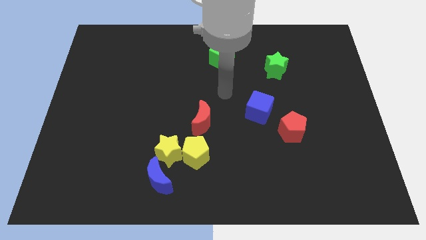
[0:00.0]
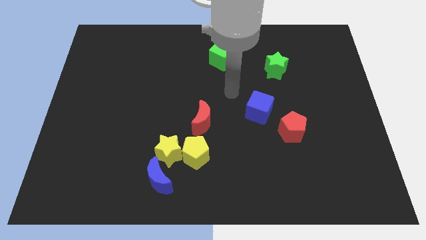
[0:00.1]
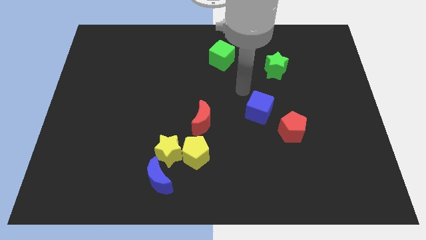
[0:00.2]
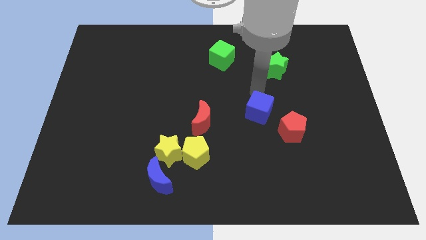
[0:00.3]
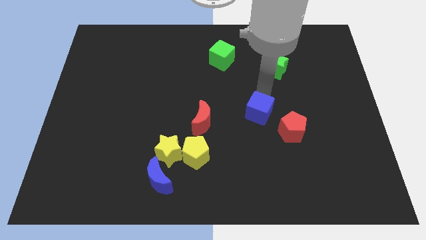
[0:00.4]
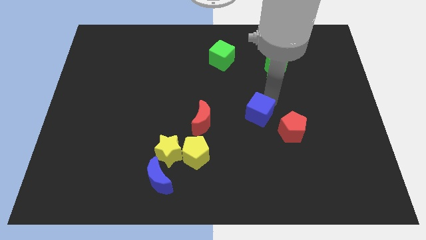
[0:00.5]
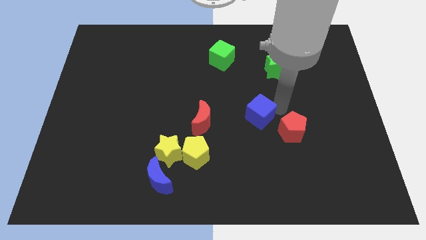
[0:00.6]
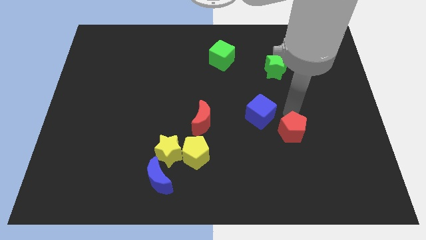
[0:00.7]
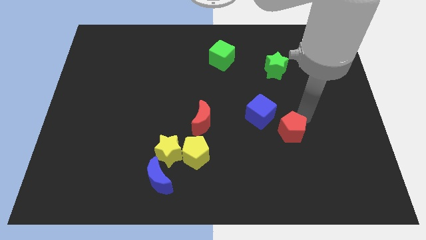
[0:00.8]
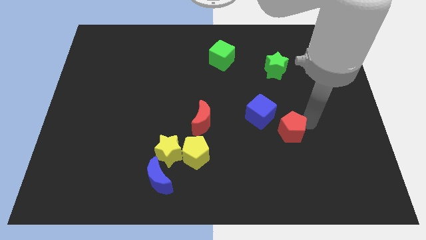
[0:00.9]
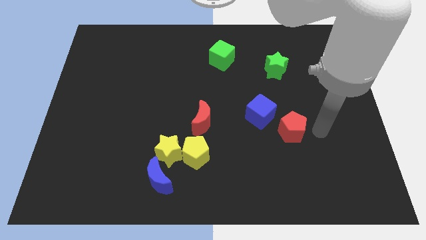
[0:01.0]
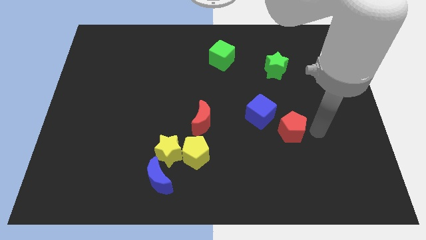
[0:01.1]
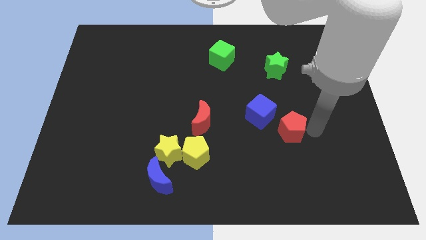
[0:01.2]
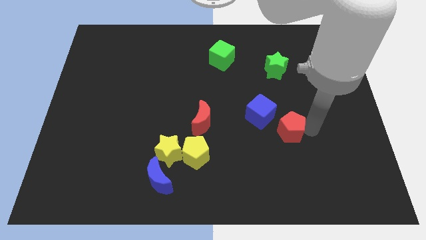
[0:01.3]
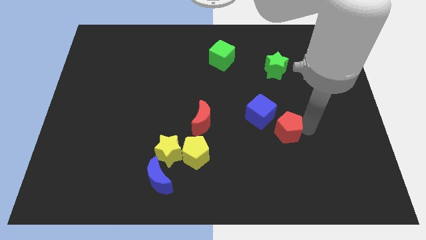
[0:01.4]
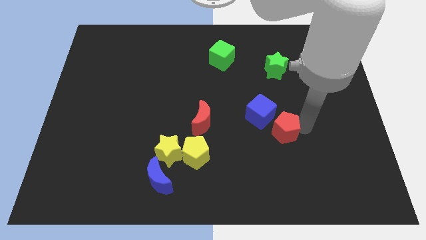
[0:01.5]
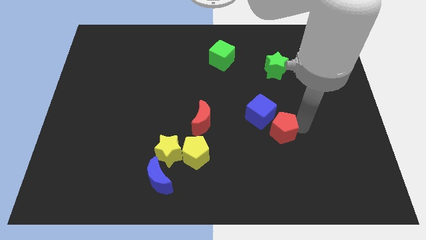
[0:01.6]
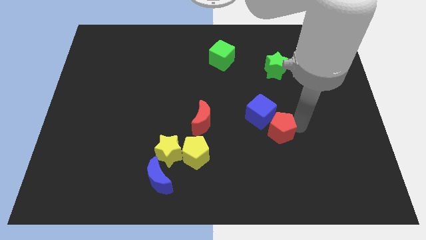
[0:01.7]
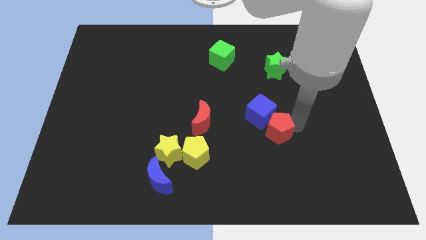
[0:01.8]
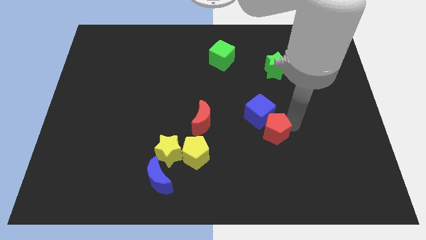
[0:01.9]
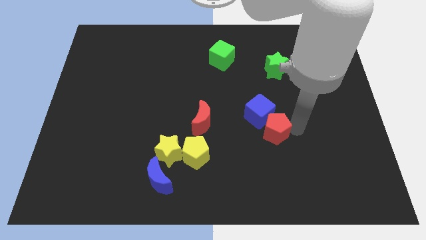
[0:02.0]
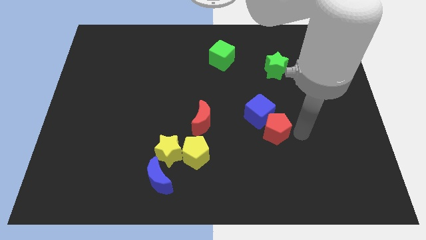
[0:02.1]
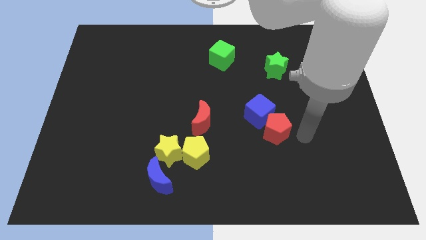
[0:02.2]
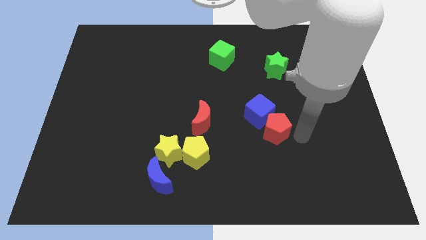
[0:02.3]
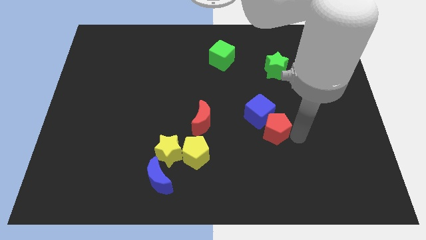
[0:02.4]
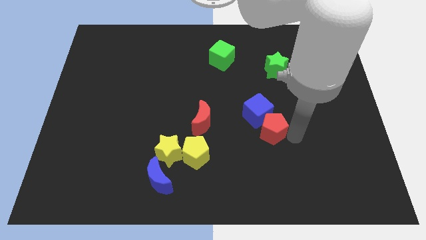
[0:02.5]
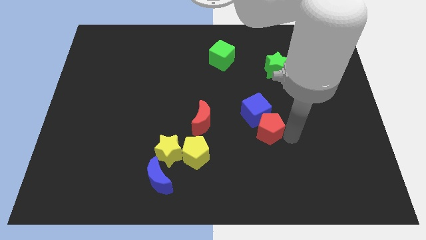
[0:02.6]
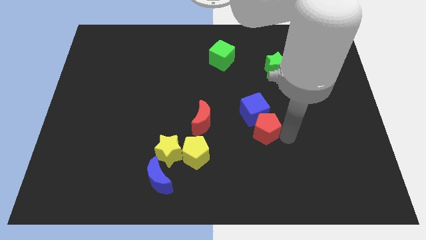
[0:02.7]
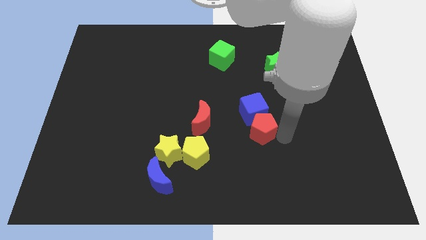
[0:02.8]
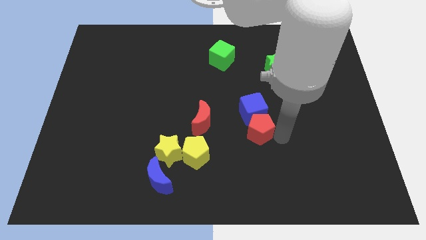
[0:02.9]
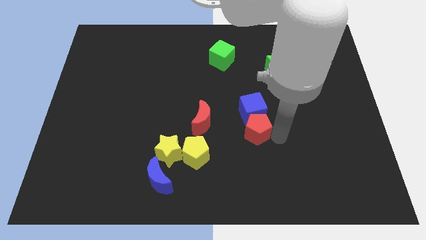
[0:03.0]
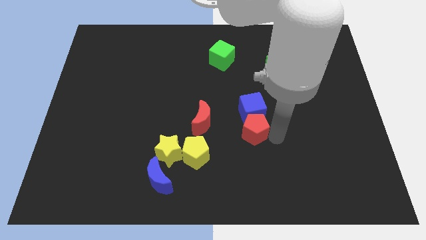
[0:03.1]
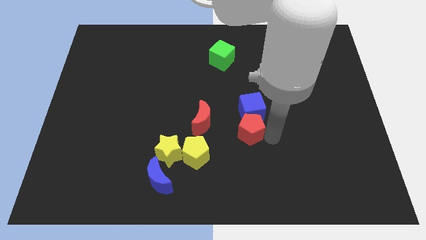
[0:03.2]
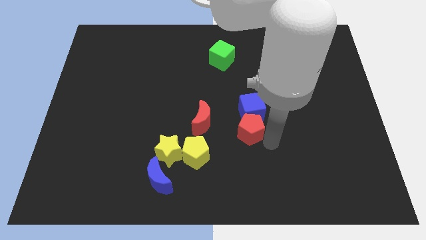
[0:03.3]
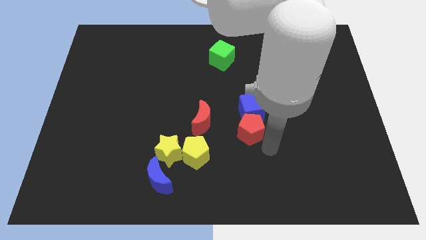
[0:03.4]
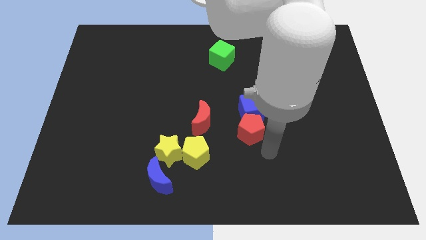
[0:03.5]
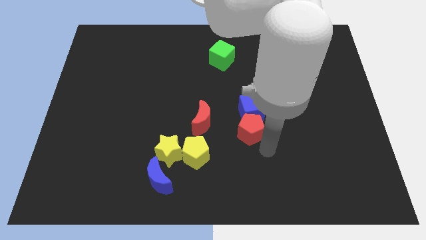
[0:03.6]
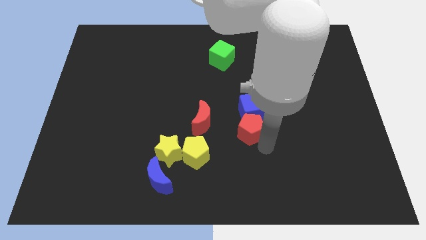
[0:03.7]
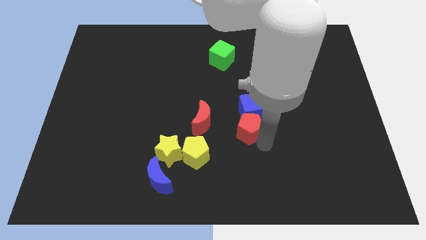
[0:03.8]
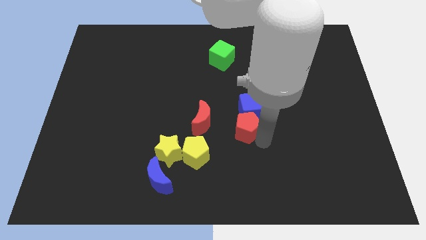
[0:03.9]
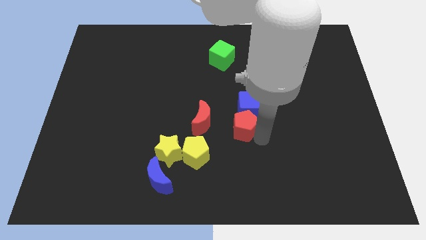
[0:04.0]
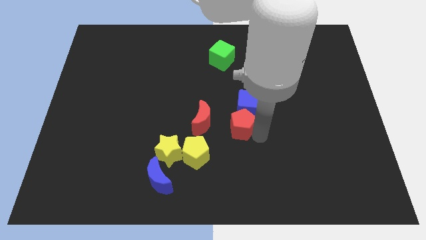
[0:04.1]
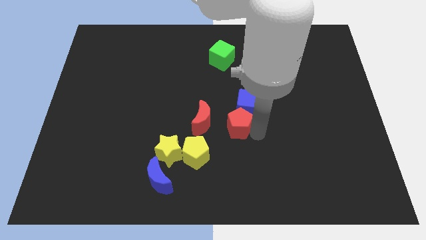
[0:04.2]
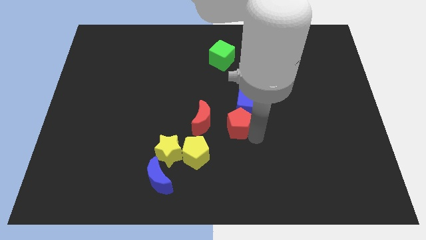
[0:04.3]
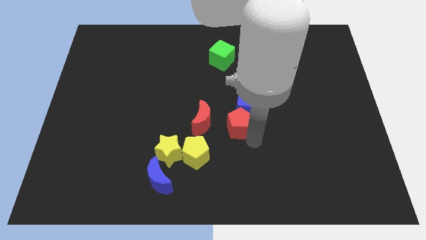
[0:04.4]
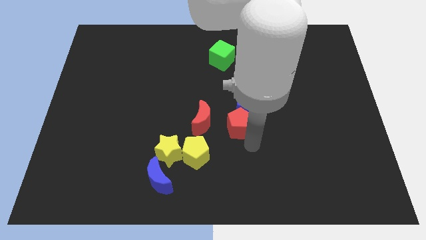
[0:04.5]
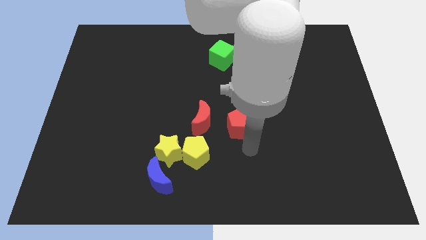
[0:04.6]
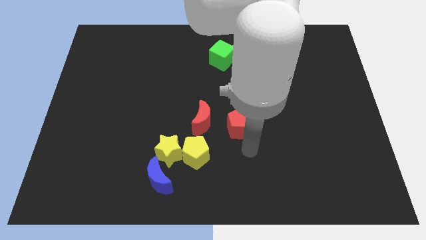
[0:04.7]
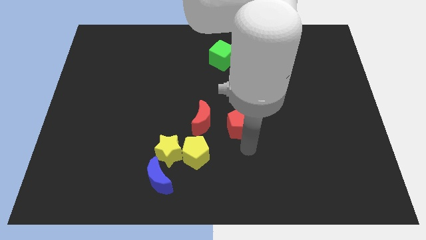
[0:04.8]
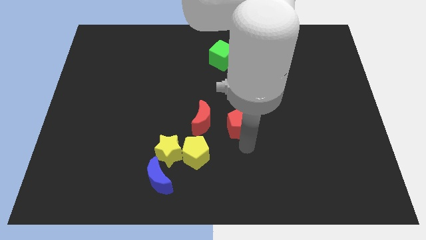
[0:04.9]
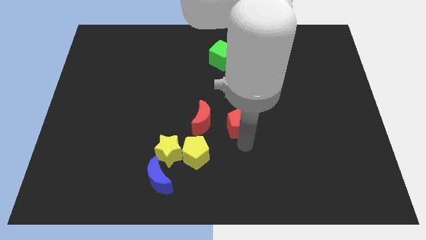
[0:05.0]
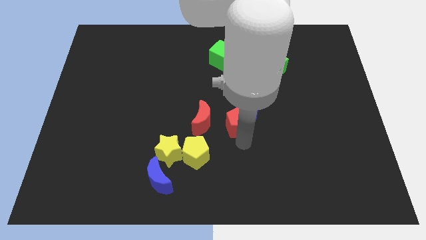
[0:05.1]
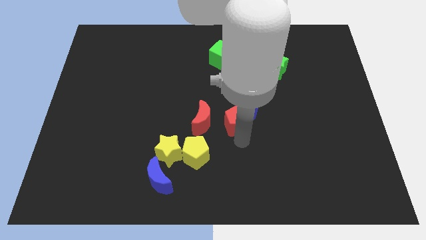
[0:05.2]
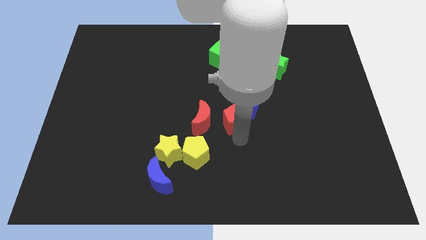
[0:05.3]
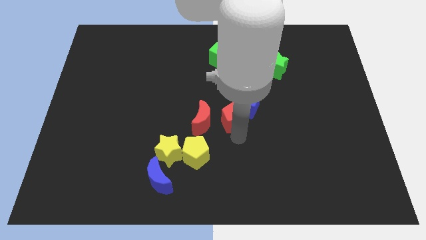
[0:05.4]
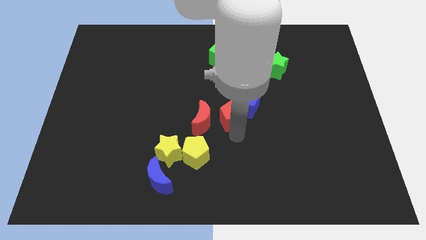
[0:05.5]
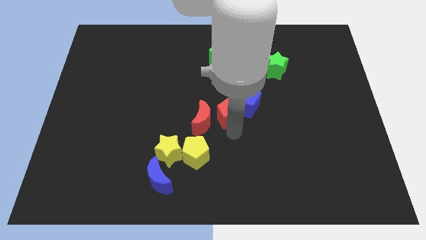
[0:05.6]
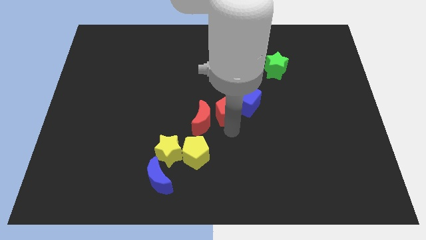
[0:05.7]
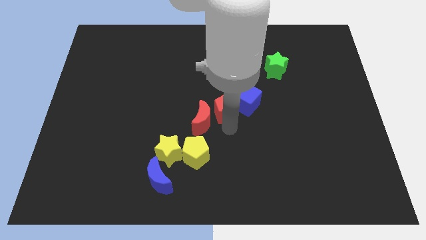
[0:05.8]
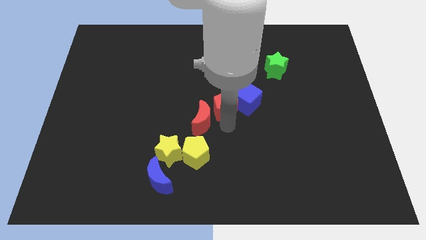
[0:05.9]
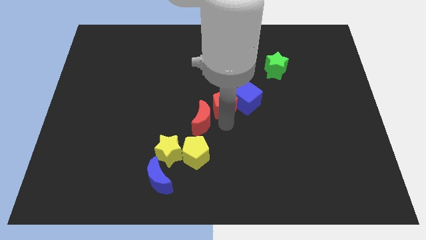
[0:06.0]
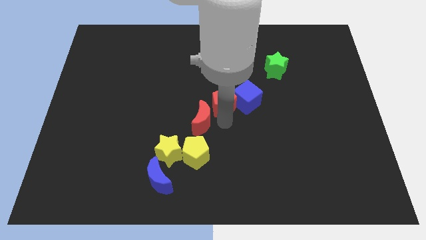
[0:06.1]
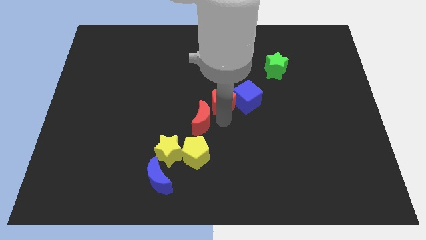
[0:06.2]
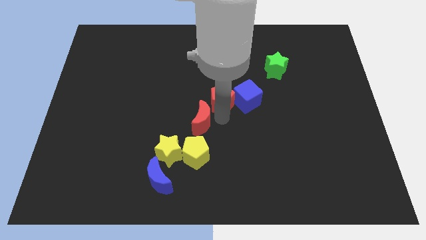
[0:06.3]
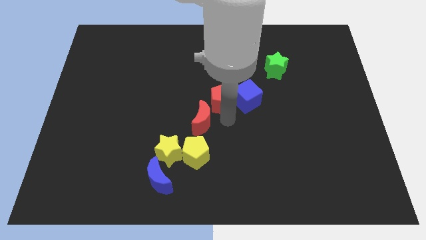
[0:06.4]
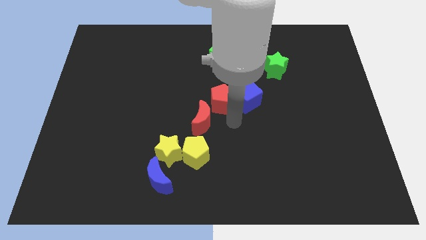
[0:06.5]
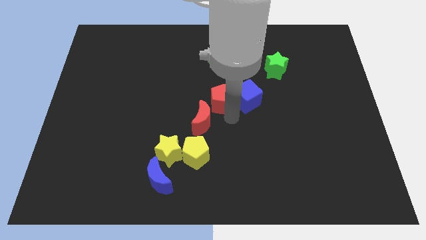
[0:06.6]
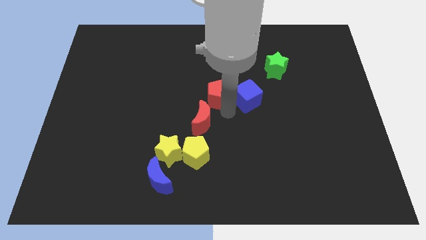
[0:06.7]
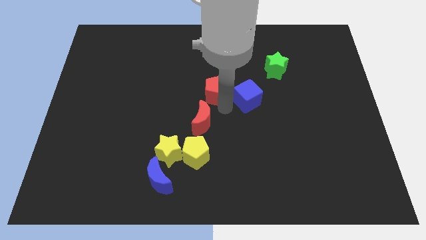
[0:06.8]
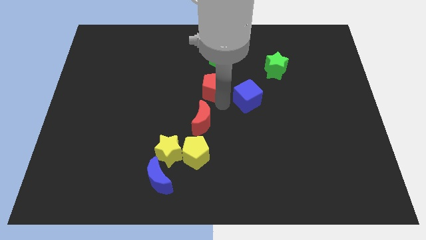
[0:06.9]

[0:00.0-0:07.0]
push the red pentagon up and then left

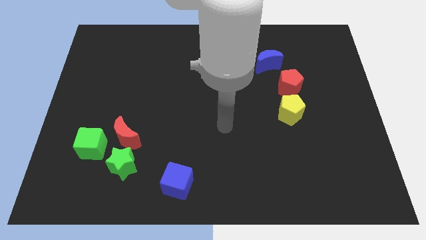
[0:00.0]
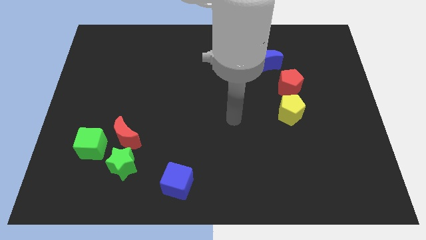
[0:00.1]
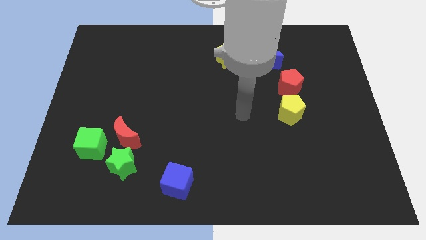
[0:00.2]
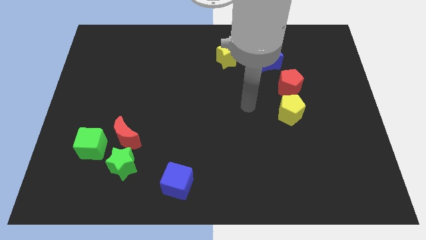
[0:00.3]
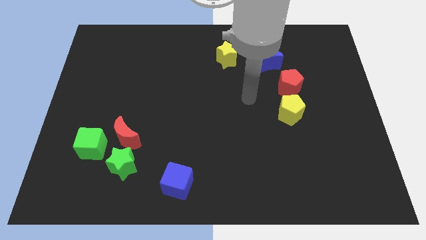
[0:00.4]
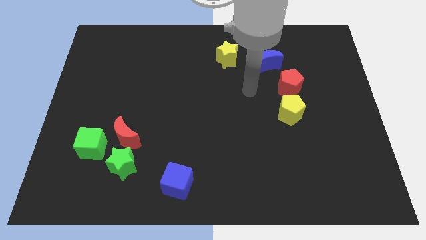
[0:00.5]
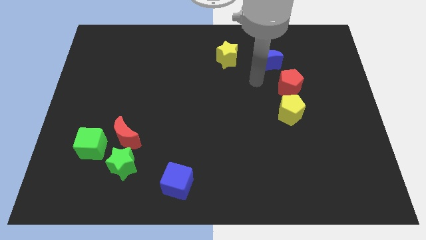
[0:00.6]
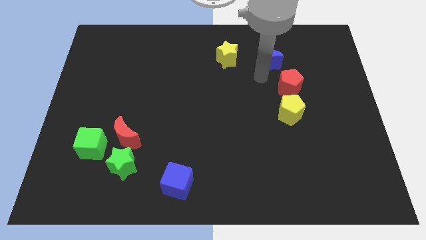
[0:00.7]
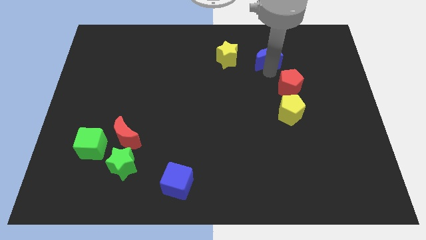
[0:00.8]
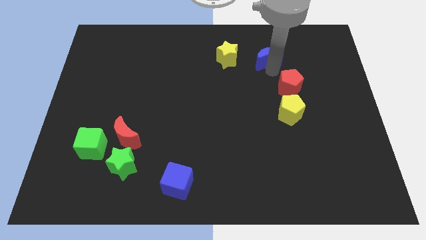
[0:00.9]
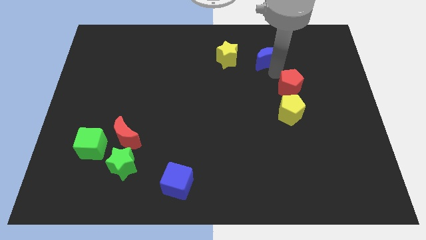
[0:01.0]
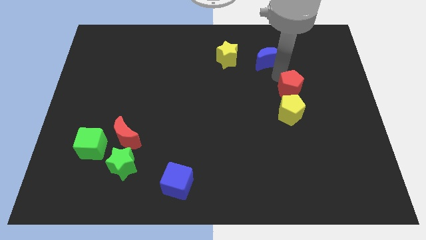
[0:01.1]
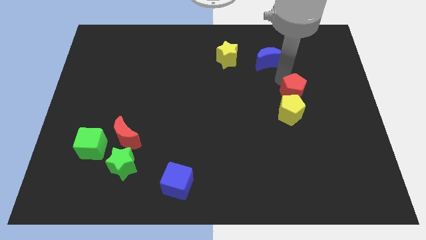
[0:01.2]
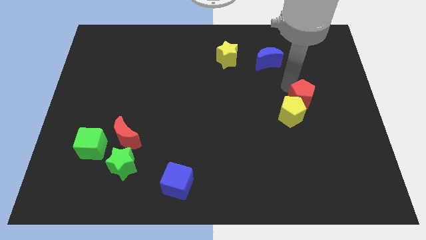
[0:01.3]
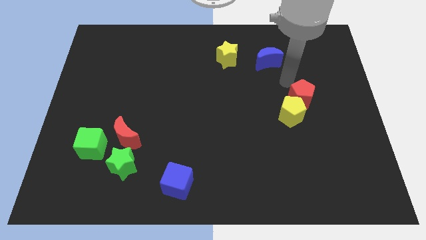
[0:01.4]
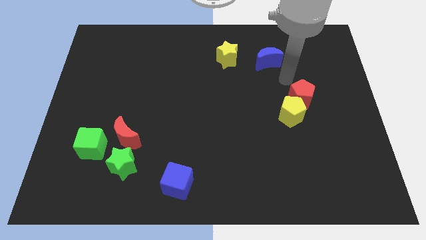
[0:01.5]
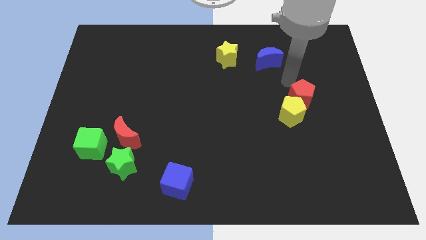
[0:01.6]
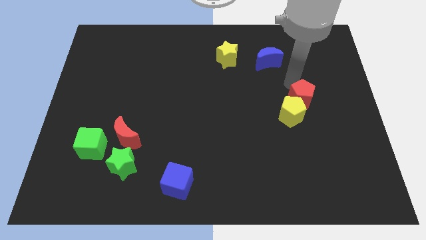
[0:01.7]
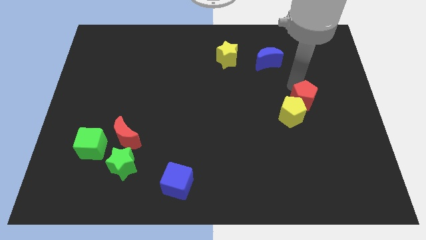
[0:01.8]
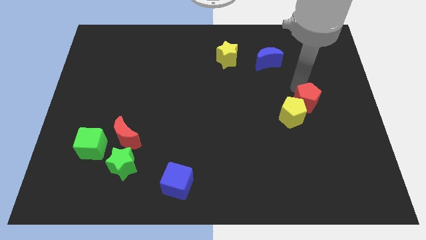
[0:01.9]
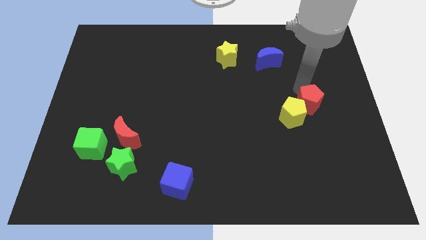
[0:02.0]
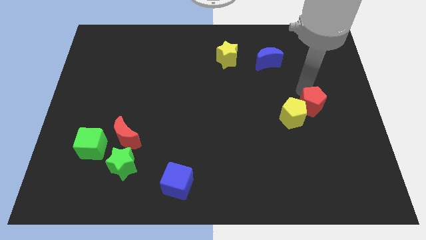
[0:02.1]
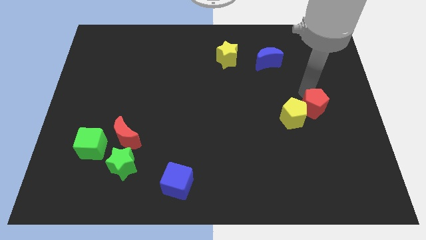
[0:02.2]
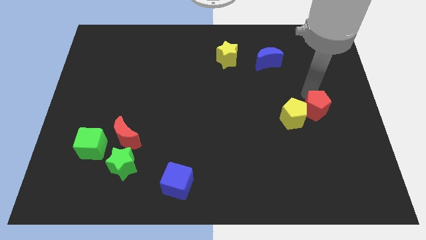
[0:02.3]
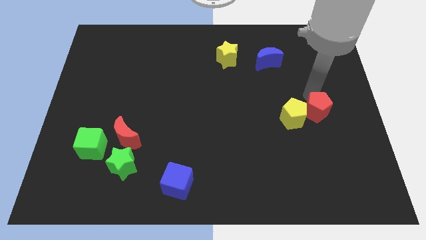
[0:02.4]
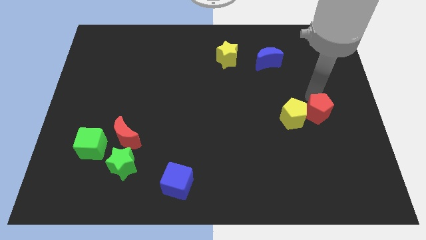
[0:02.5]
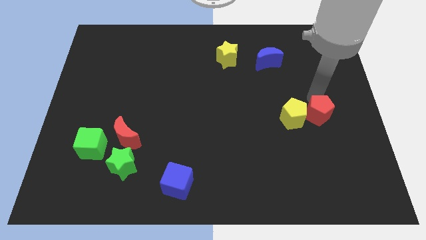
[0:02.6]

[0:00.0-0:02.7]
slightly move the red pentagon down
